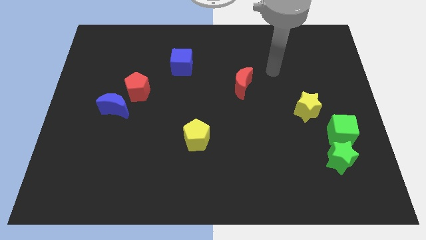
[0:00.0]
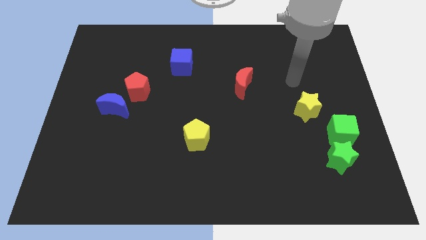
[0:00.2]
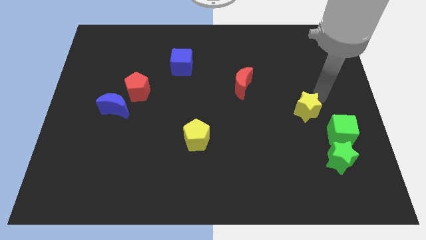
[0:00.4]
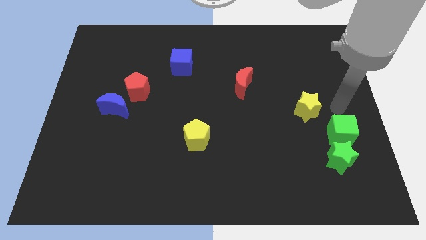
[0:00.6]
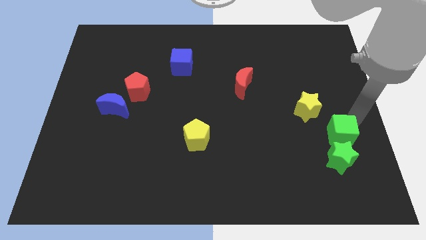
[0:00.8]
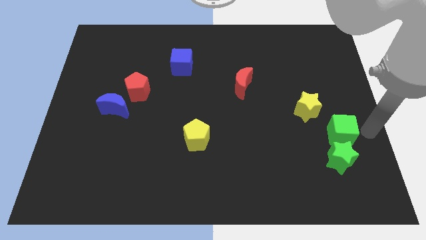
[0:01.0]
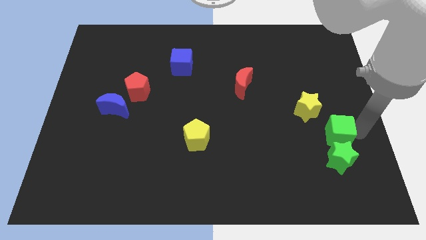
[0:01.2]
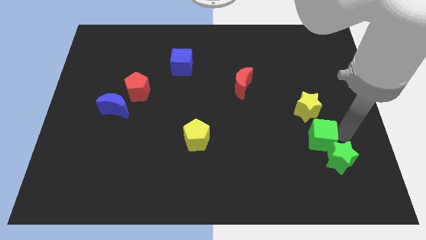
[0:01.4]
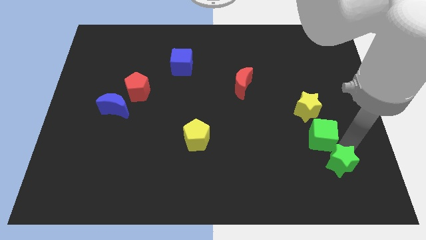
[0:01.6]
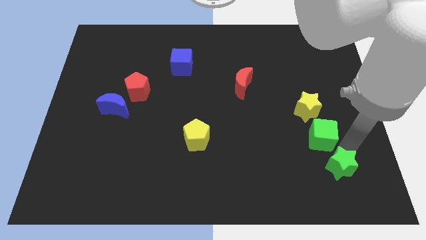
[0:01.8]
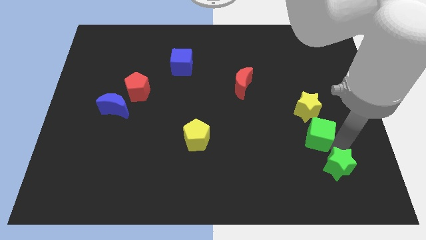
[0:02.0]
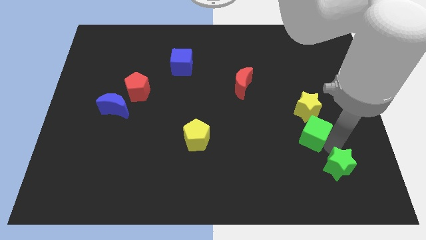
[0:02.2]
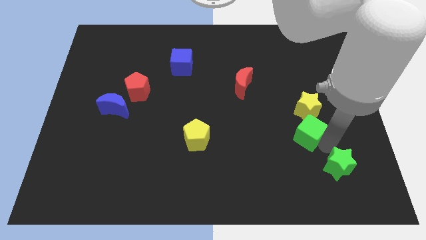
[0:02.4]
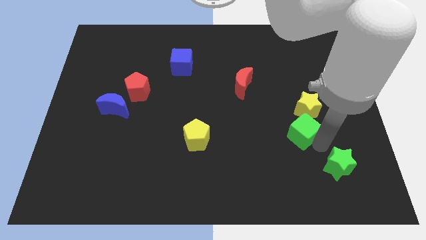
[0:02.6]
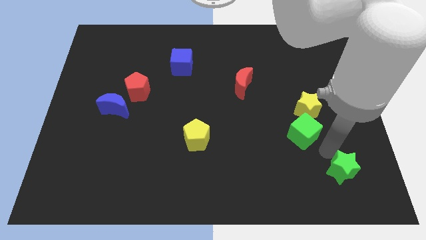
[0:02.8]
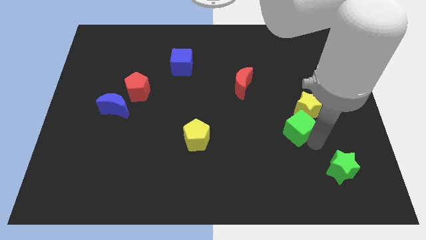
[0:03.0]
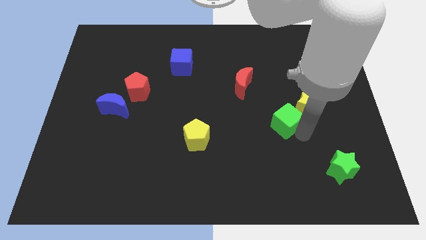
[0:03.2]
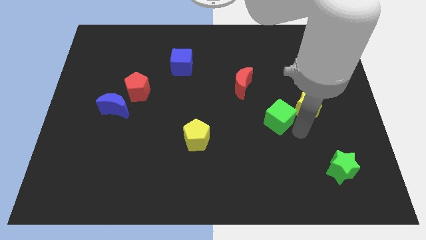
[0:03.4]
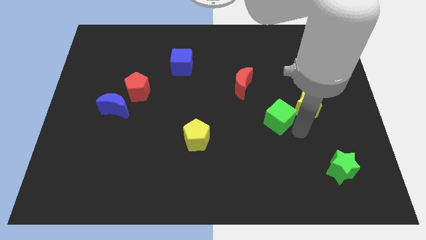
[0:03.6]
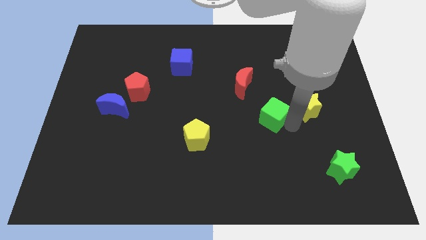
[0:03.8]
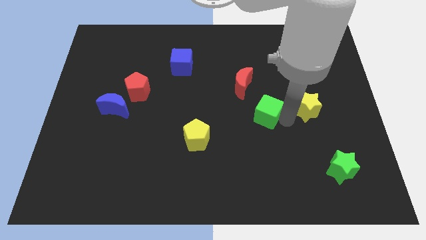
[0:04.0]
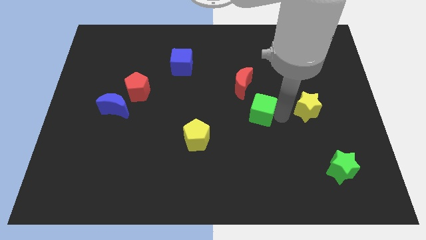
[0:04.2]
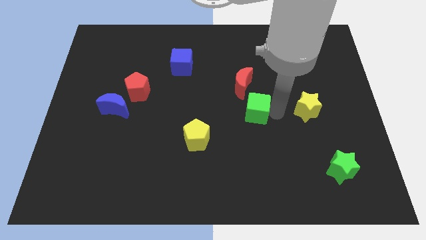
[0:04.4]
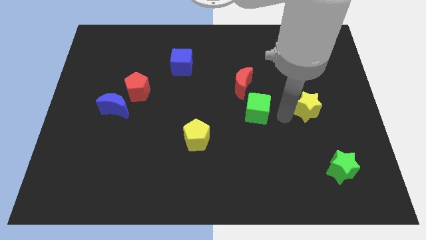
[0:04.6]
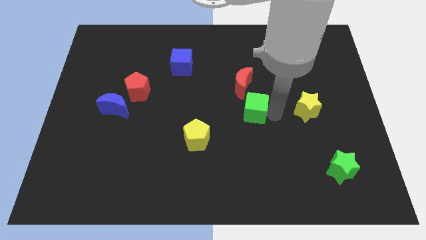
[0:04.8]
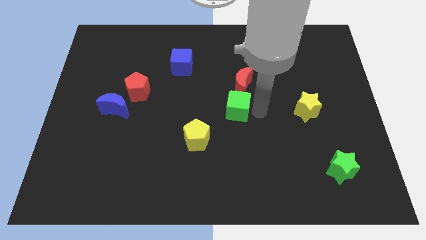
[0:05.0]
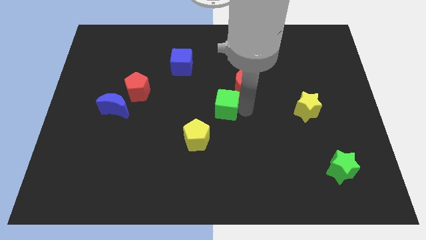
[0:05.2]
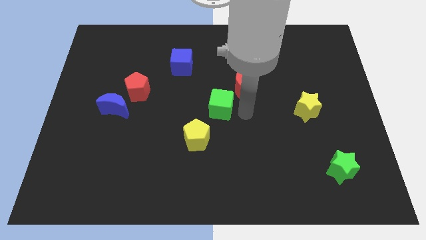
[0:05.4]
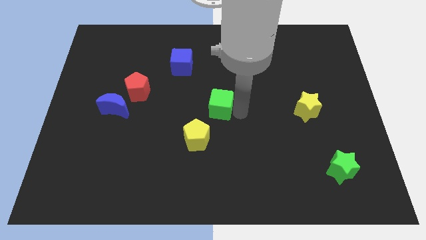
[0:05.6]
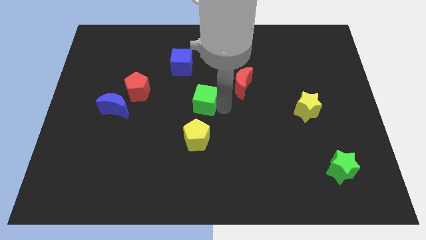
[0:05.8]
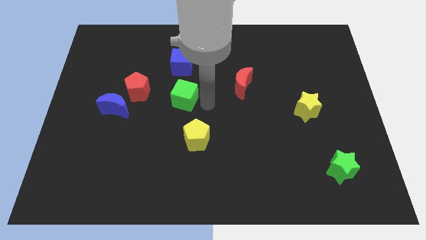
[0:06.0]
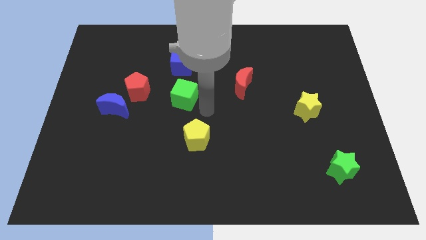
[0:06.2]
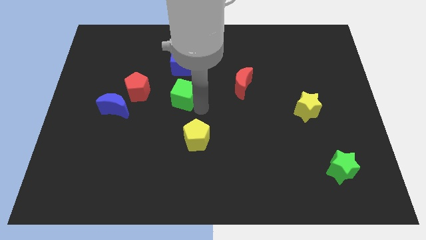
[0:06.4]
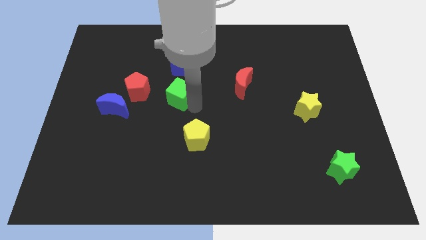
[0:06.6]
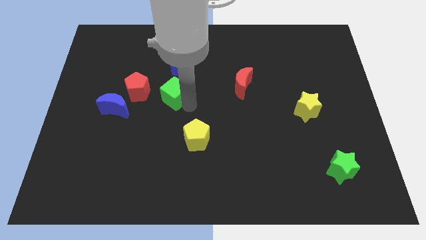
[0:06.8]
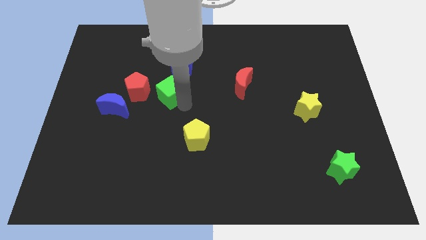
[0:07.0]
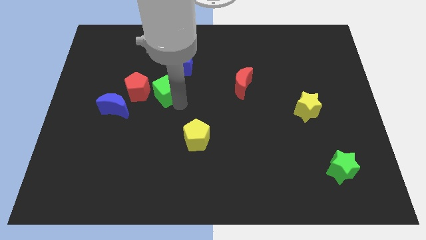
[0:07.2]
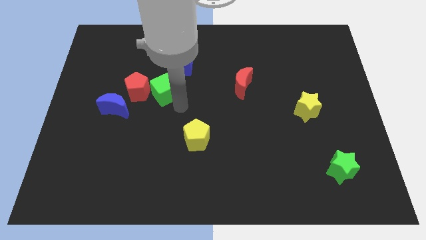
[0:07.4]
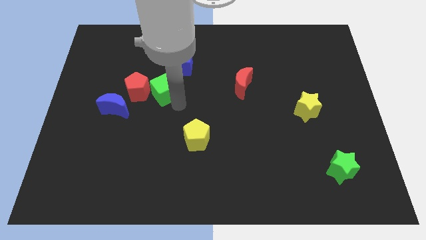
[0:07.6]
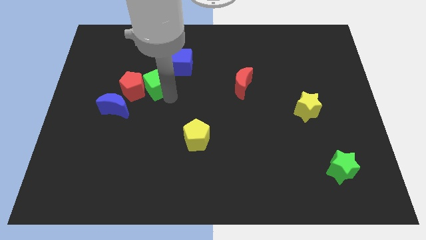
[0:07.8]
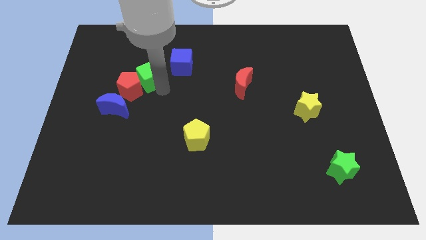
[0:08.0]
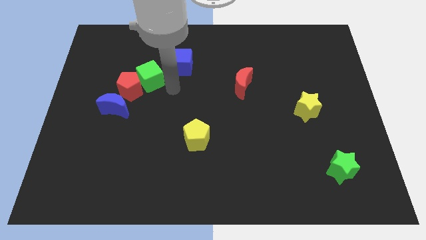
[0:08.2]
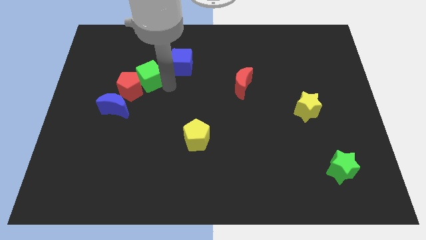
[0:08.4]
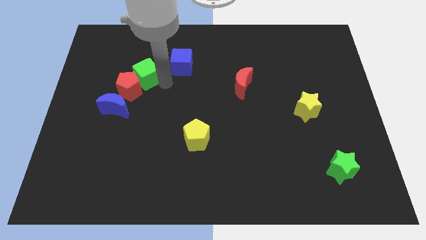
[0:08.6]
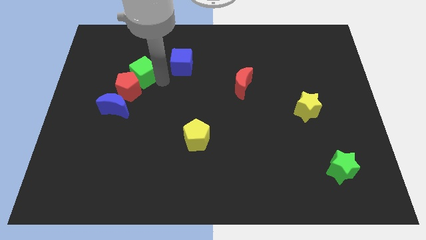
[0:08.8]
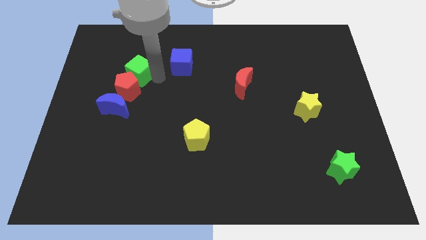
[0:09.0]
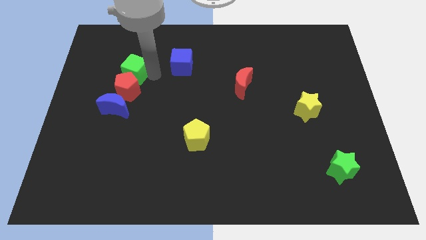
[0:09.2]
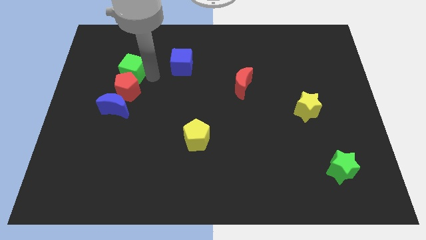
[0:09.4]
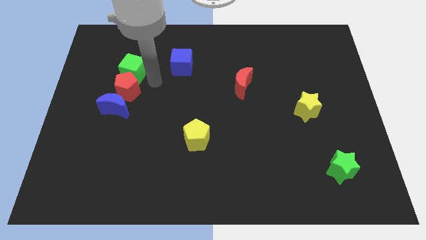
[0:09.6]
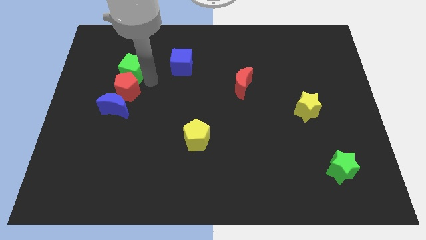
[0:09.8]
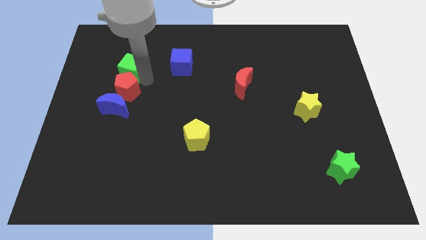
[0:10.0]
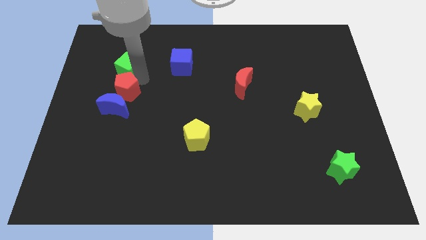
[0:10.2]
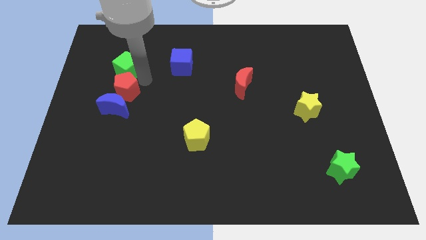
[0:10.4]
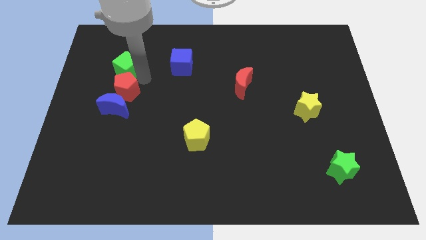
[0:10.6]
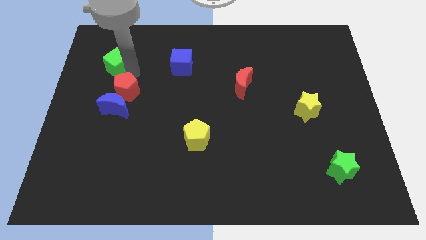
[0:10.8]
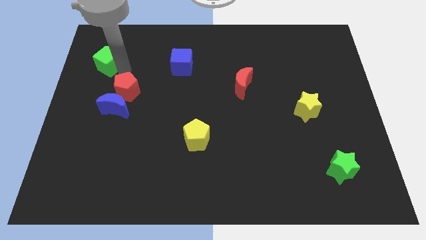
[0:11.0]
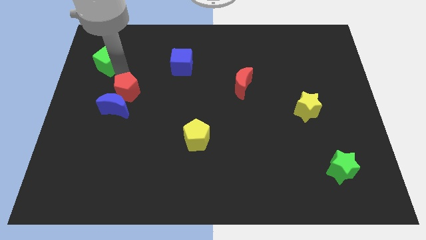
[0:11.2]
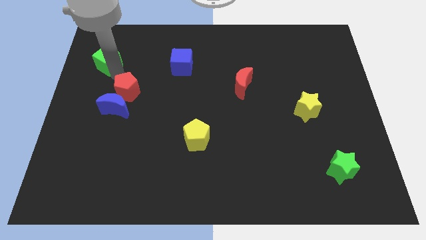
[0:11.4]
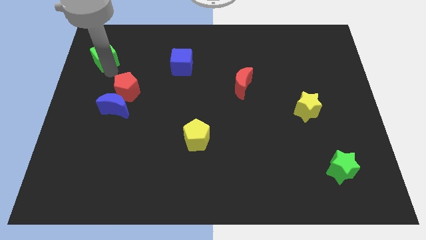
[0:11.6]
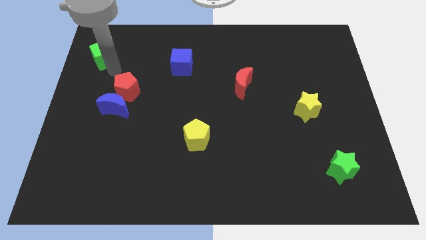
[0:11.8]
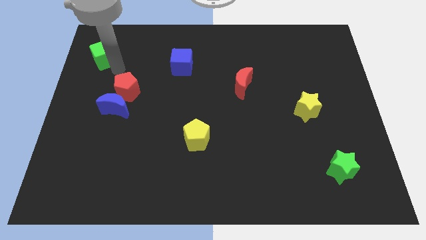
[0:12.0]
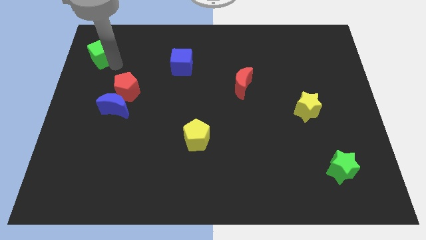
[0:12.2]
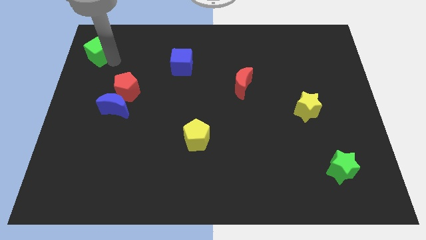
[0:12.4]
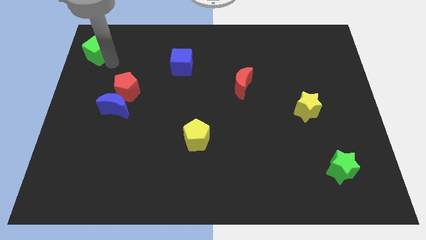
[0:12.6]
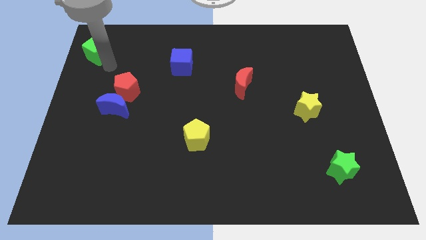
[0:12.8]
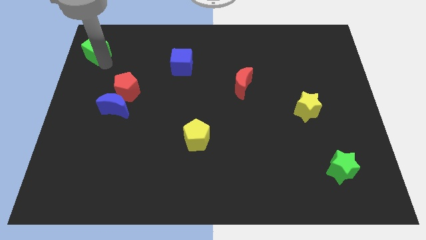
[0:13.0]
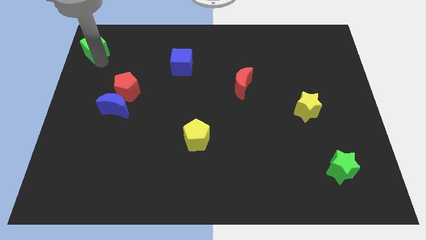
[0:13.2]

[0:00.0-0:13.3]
move the green cube to the top left corner
